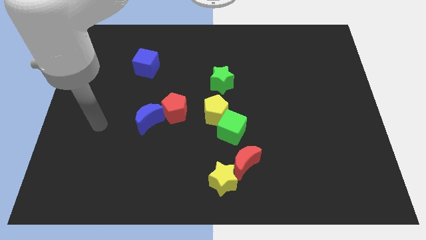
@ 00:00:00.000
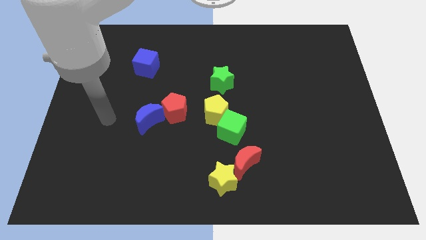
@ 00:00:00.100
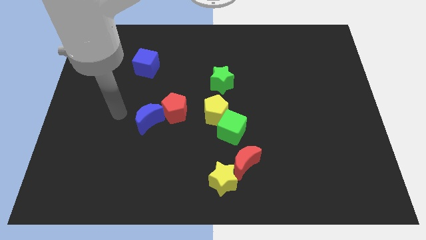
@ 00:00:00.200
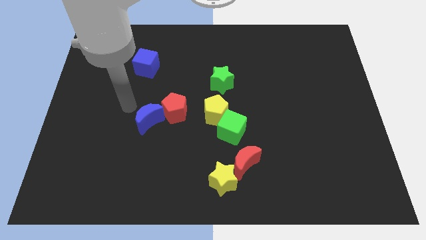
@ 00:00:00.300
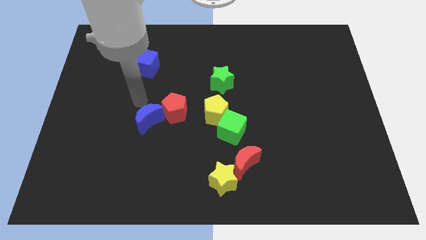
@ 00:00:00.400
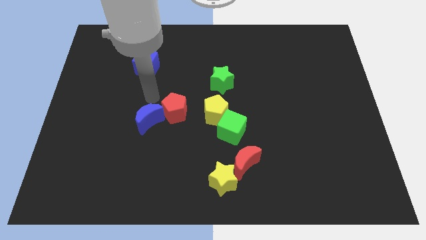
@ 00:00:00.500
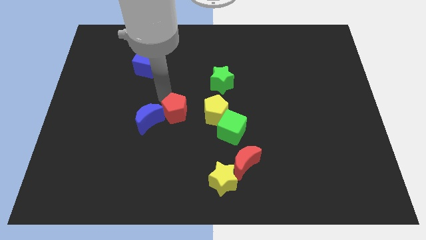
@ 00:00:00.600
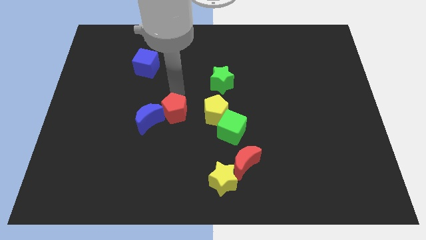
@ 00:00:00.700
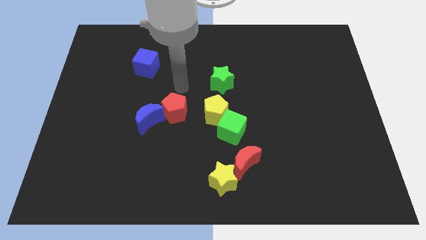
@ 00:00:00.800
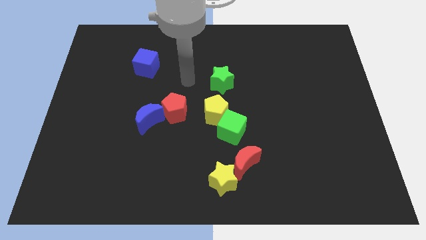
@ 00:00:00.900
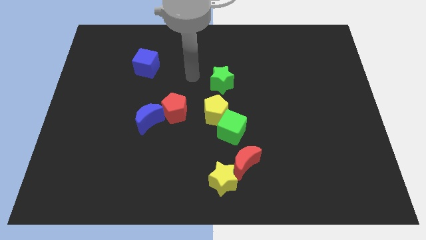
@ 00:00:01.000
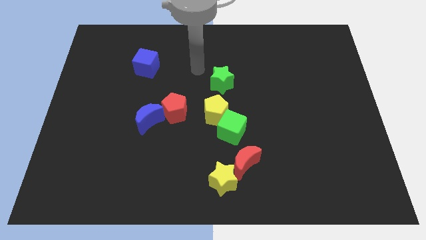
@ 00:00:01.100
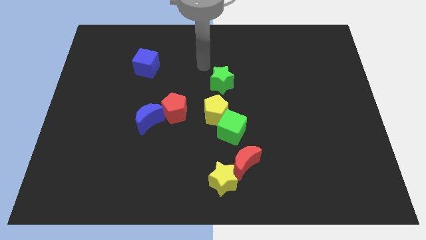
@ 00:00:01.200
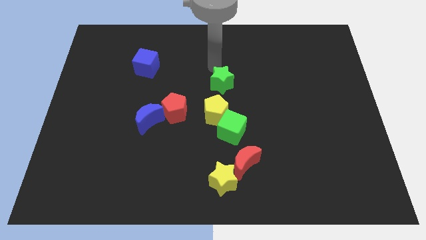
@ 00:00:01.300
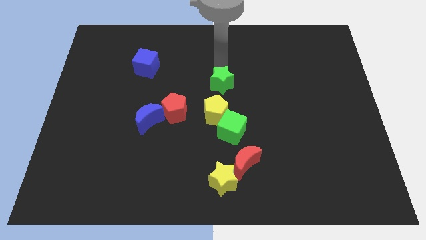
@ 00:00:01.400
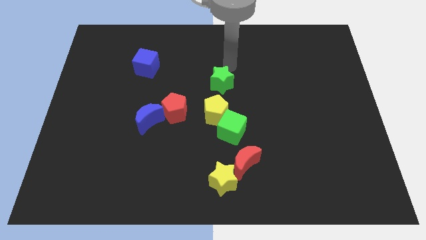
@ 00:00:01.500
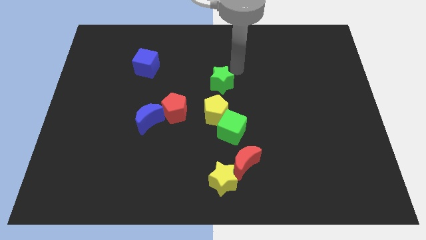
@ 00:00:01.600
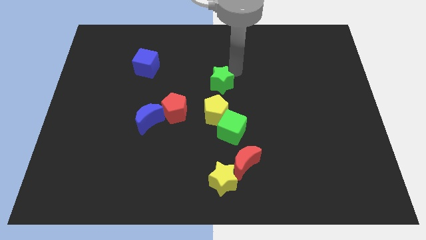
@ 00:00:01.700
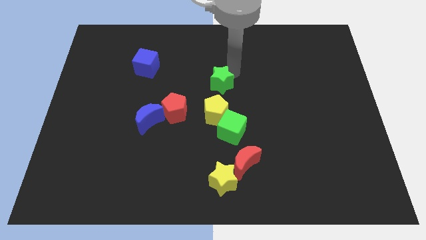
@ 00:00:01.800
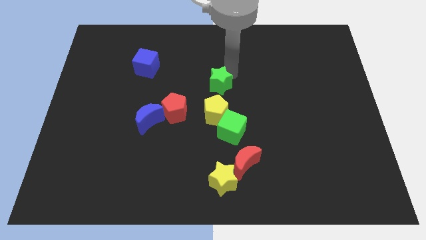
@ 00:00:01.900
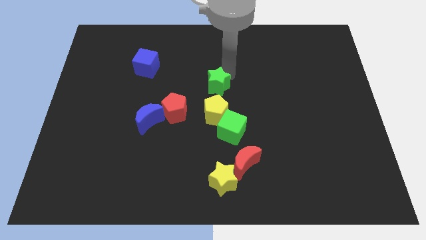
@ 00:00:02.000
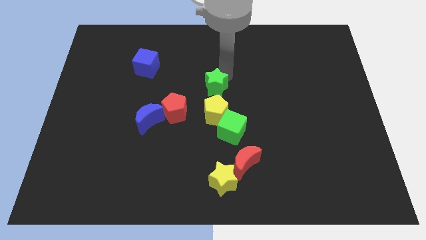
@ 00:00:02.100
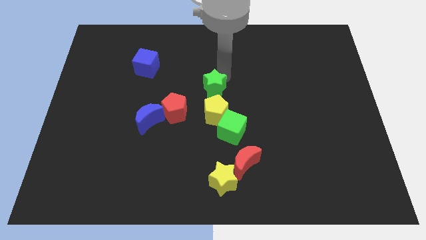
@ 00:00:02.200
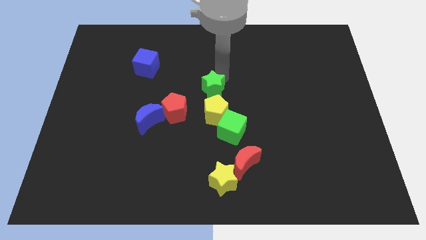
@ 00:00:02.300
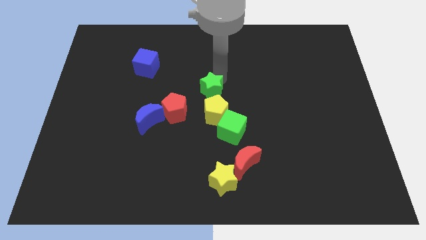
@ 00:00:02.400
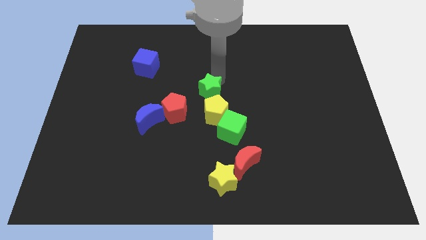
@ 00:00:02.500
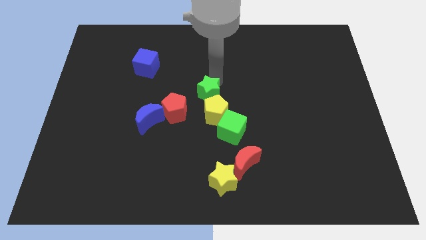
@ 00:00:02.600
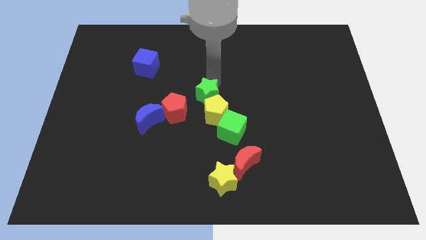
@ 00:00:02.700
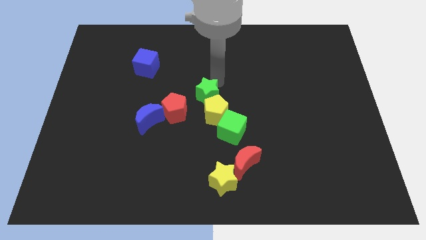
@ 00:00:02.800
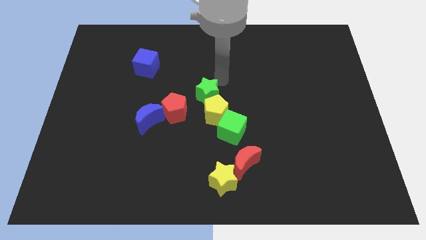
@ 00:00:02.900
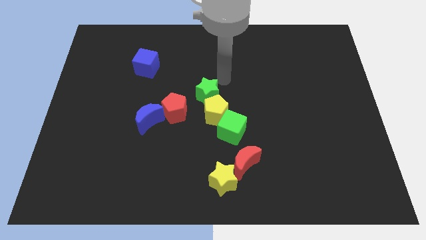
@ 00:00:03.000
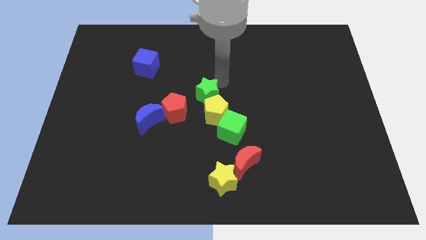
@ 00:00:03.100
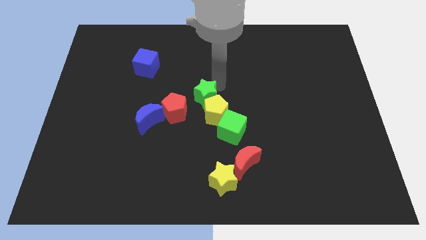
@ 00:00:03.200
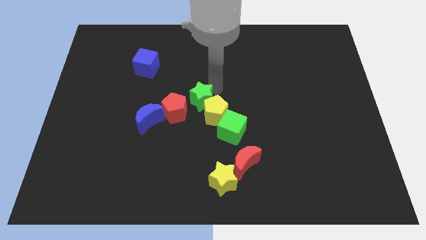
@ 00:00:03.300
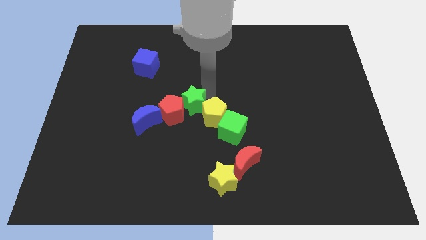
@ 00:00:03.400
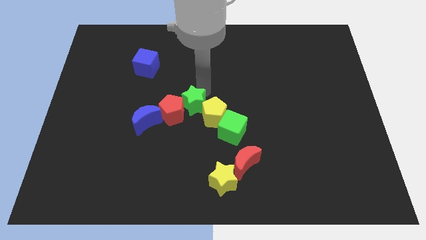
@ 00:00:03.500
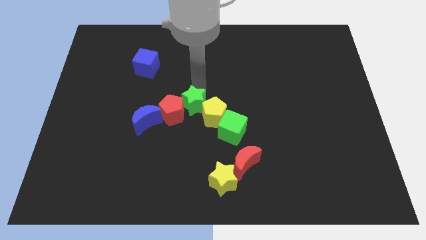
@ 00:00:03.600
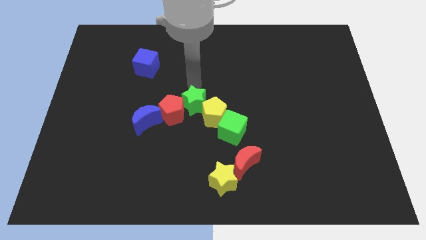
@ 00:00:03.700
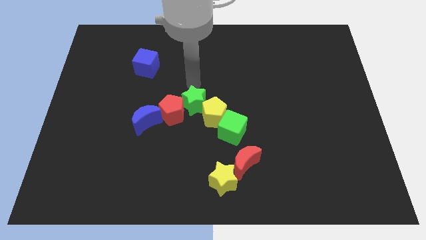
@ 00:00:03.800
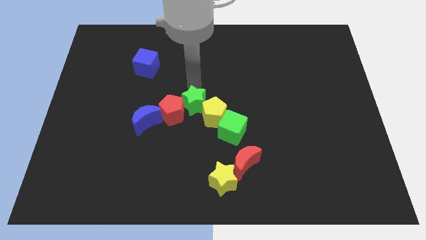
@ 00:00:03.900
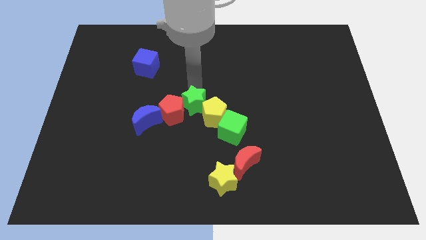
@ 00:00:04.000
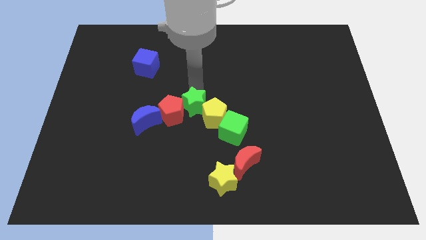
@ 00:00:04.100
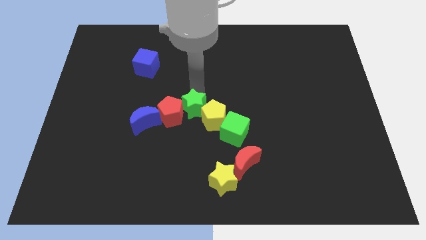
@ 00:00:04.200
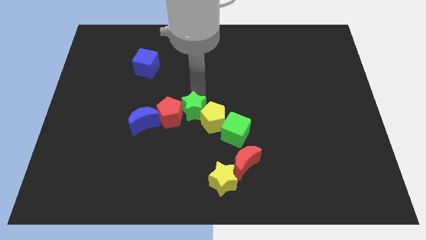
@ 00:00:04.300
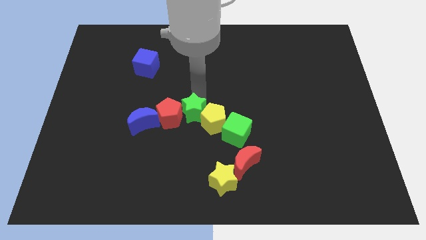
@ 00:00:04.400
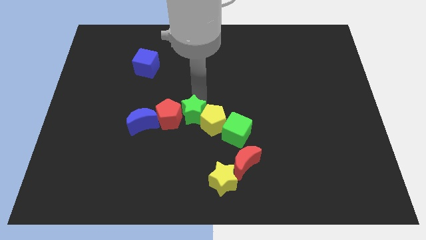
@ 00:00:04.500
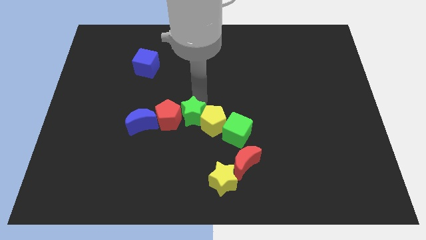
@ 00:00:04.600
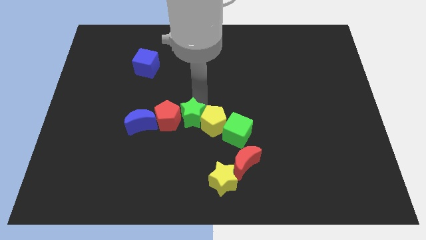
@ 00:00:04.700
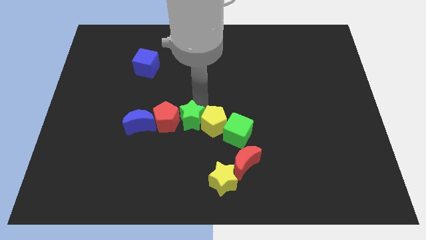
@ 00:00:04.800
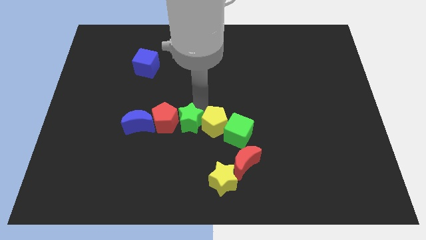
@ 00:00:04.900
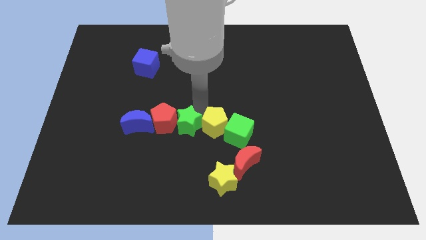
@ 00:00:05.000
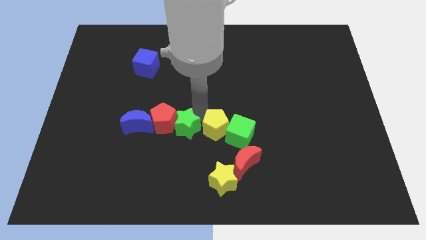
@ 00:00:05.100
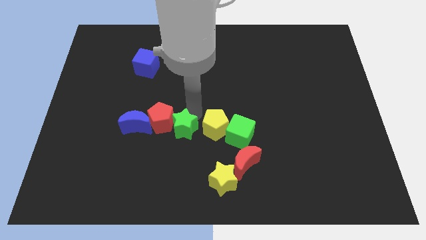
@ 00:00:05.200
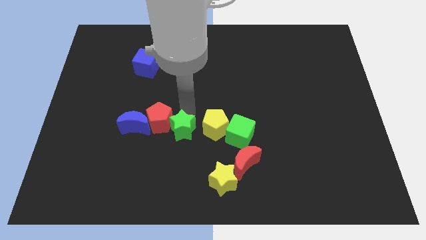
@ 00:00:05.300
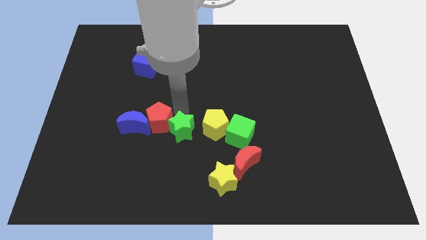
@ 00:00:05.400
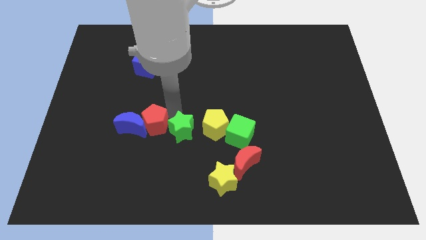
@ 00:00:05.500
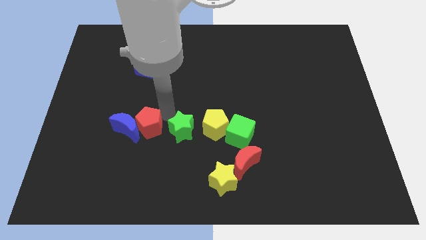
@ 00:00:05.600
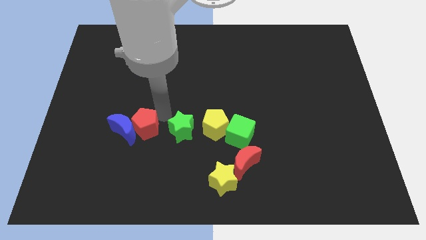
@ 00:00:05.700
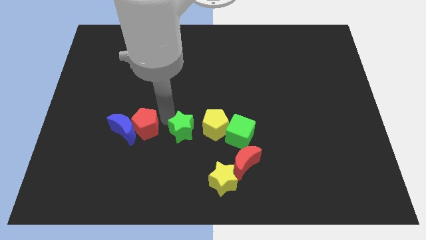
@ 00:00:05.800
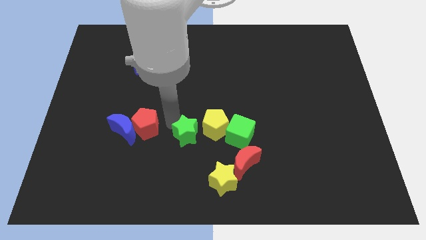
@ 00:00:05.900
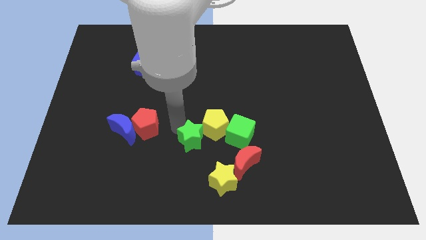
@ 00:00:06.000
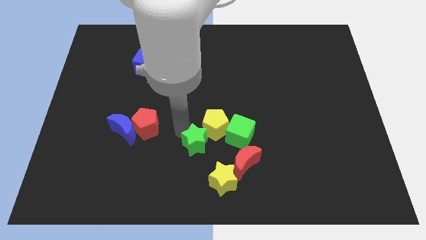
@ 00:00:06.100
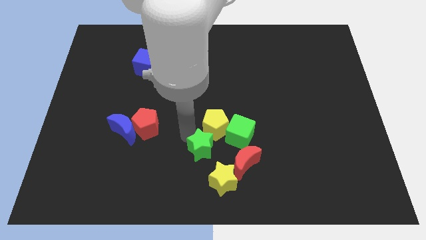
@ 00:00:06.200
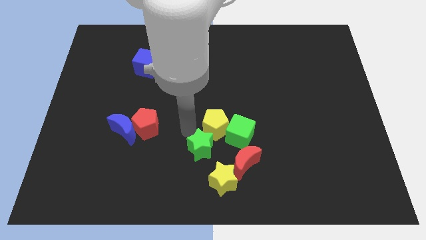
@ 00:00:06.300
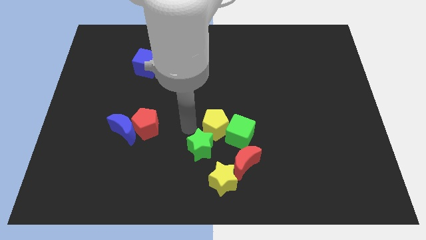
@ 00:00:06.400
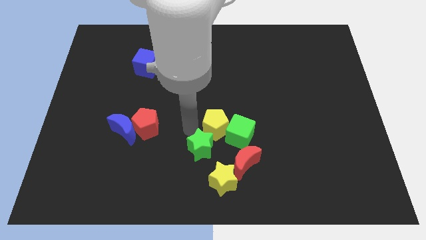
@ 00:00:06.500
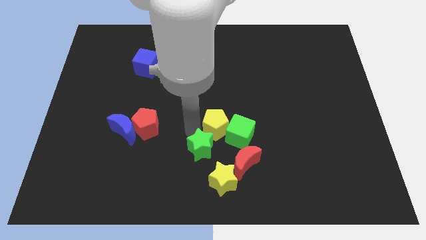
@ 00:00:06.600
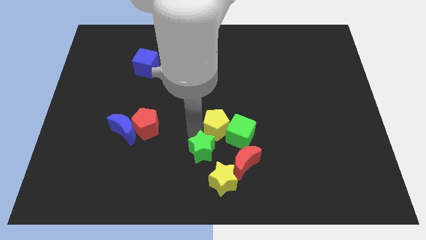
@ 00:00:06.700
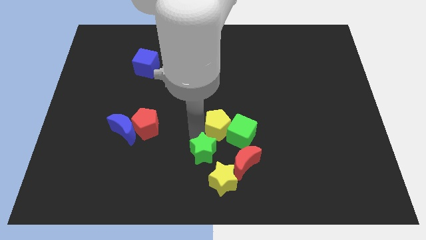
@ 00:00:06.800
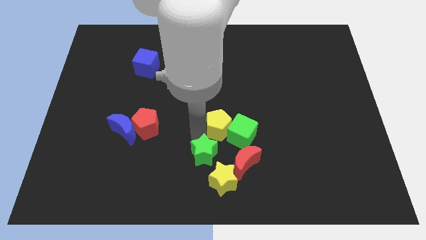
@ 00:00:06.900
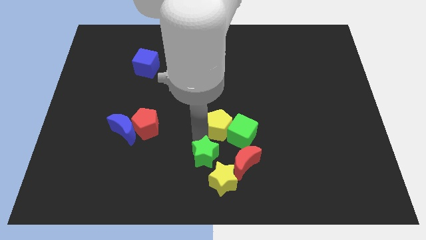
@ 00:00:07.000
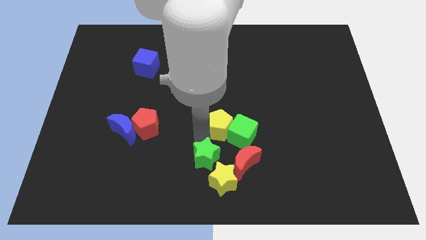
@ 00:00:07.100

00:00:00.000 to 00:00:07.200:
put the green star next to the yellow star

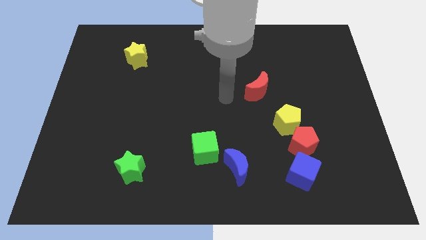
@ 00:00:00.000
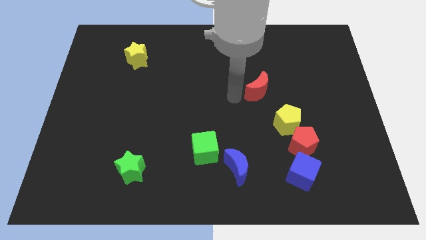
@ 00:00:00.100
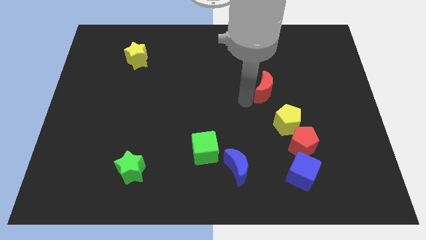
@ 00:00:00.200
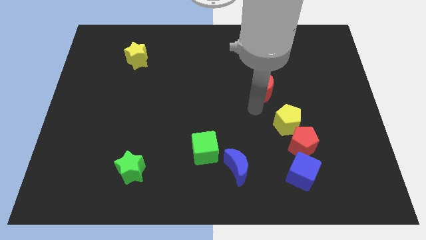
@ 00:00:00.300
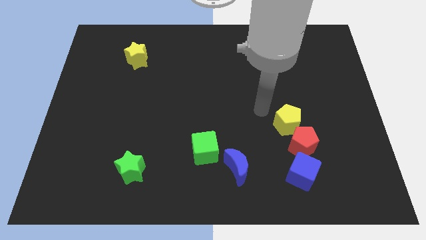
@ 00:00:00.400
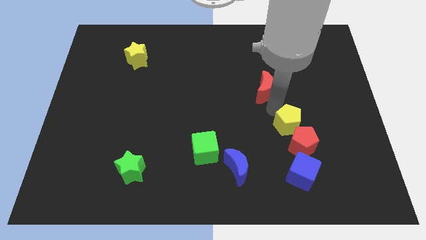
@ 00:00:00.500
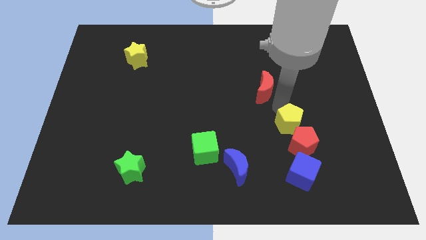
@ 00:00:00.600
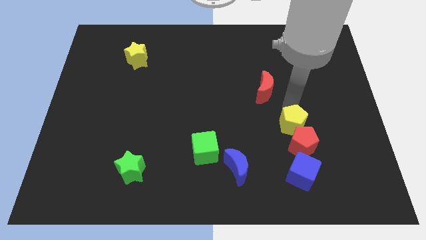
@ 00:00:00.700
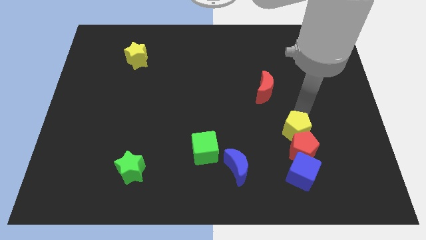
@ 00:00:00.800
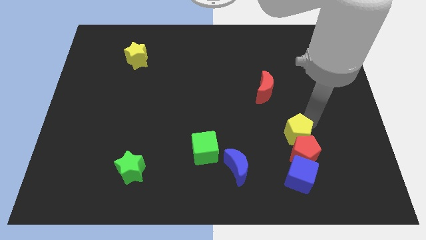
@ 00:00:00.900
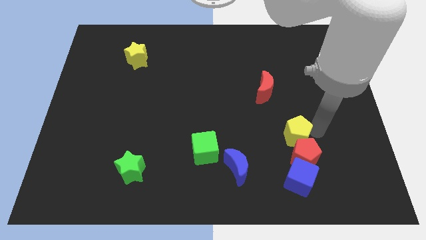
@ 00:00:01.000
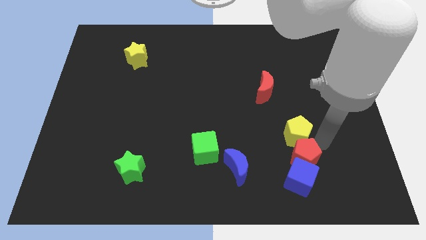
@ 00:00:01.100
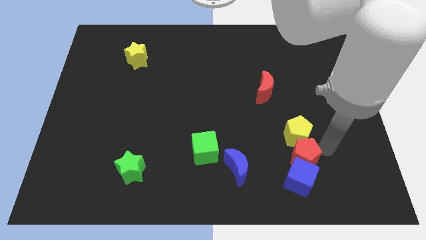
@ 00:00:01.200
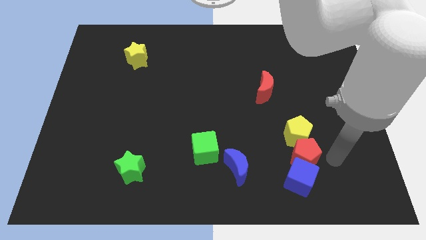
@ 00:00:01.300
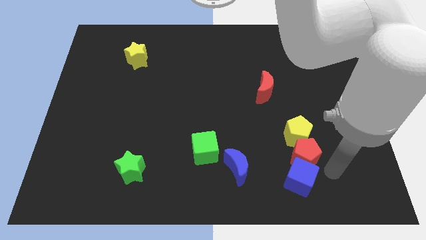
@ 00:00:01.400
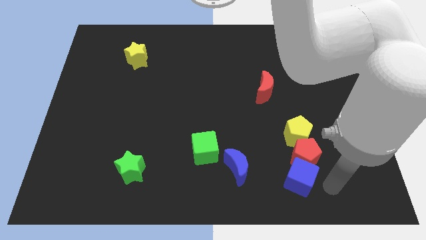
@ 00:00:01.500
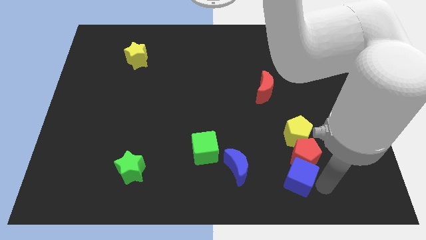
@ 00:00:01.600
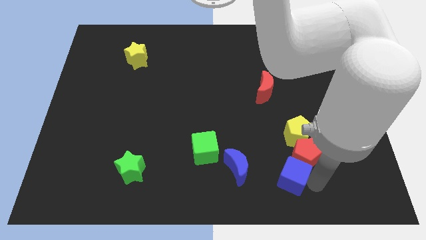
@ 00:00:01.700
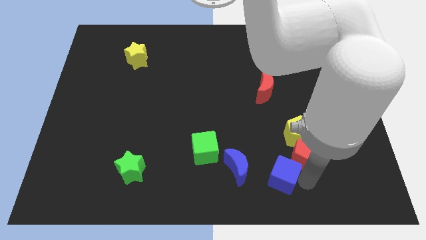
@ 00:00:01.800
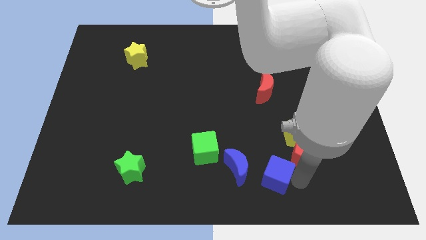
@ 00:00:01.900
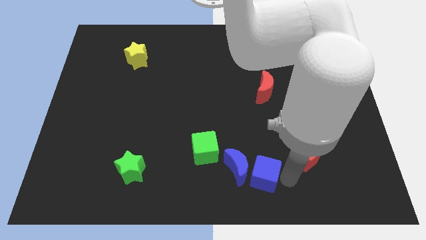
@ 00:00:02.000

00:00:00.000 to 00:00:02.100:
slide the blue cube close to the blue moon
